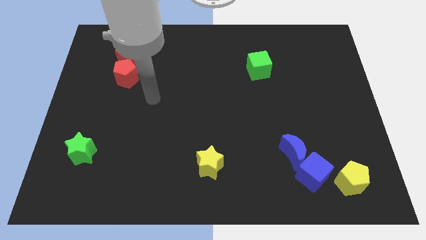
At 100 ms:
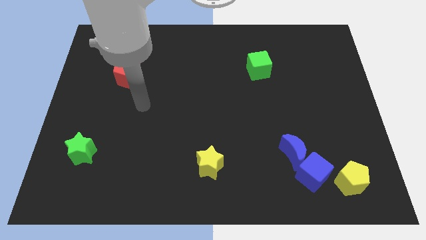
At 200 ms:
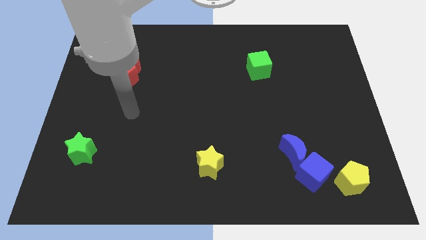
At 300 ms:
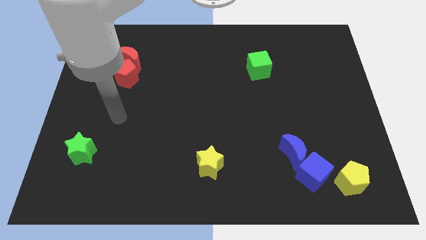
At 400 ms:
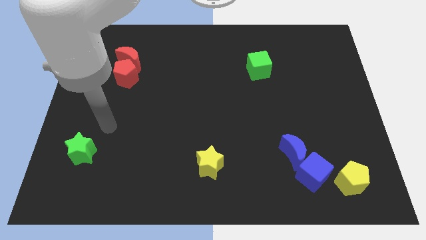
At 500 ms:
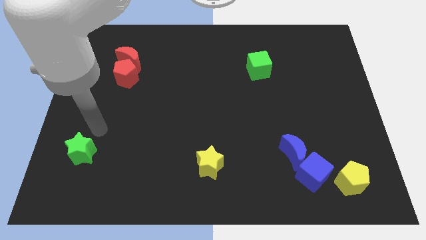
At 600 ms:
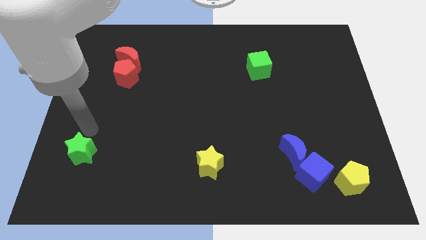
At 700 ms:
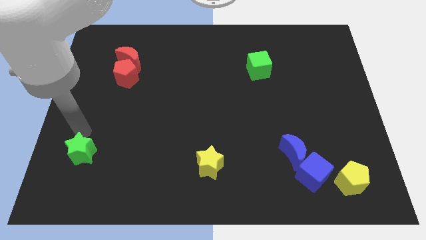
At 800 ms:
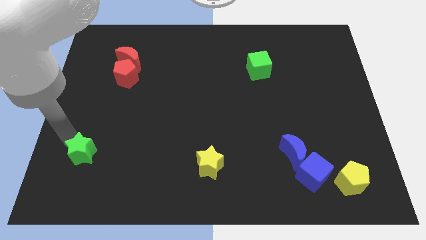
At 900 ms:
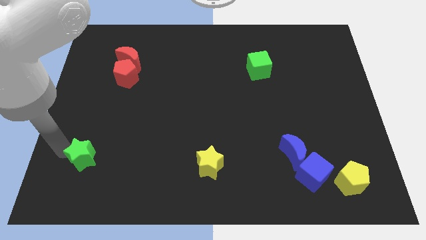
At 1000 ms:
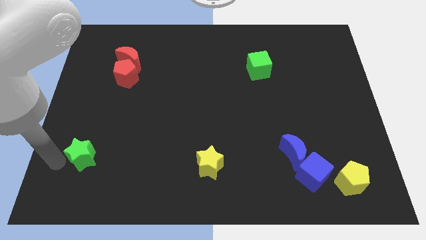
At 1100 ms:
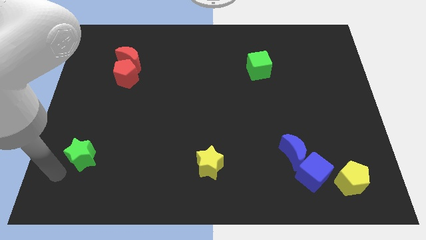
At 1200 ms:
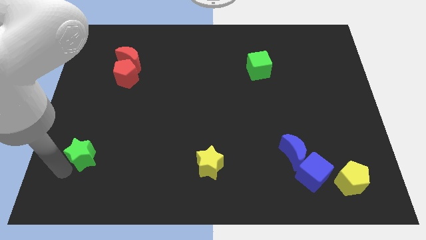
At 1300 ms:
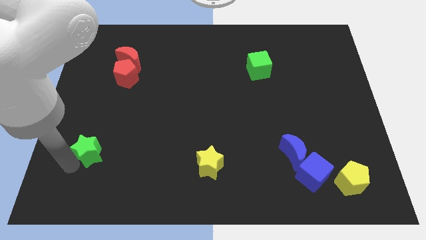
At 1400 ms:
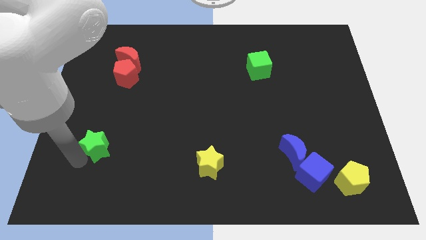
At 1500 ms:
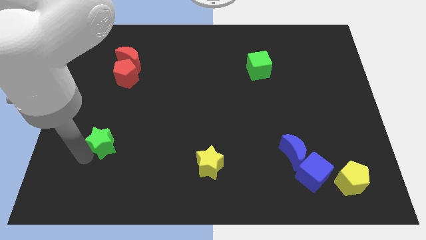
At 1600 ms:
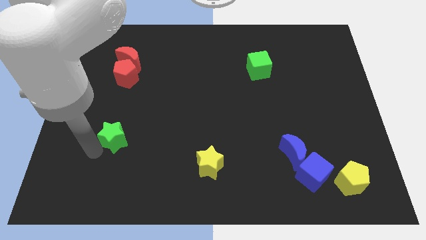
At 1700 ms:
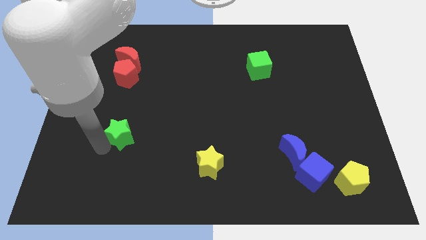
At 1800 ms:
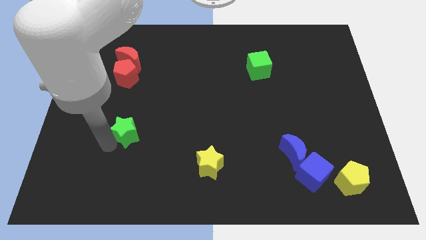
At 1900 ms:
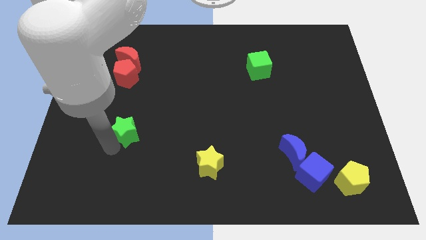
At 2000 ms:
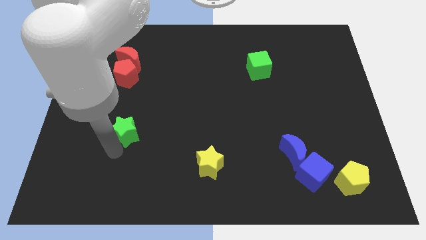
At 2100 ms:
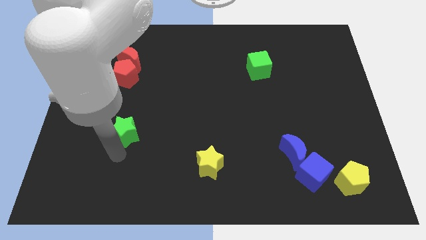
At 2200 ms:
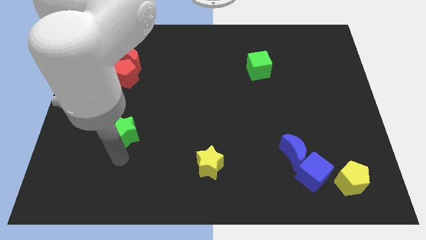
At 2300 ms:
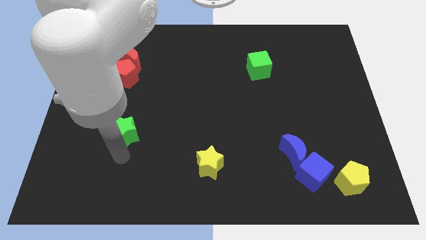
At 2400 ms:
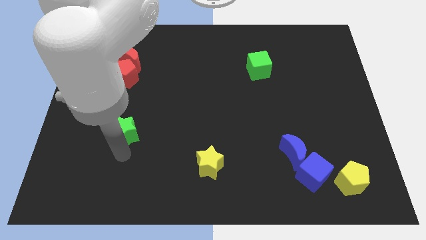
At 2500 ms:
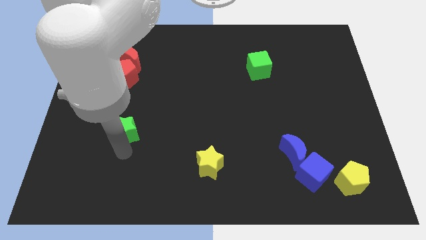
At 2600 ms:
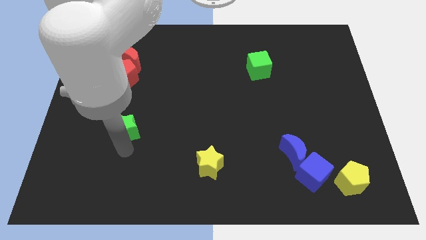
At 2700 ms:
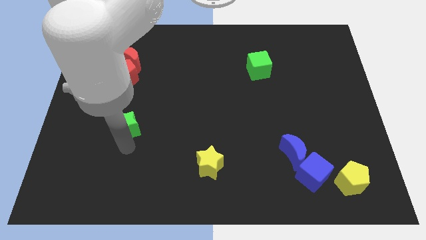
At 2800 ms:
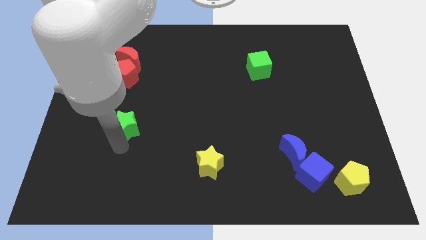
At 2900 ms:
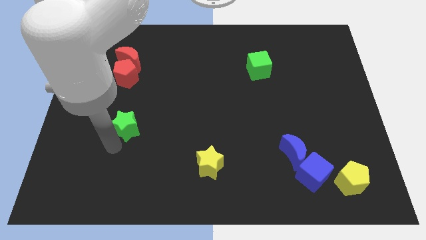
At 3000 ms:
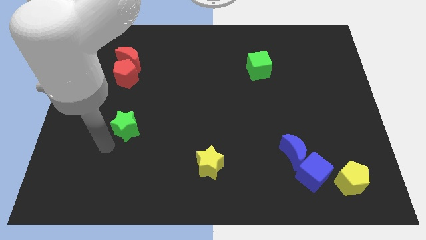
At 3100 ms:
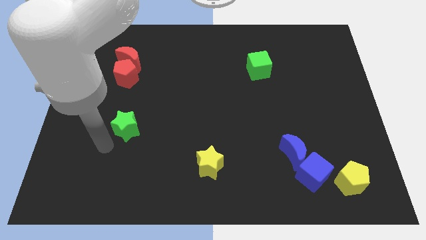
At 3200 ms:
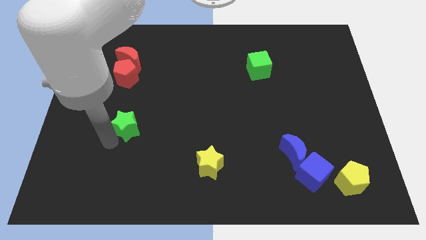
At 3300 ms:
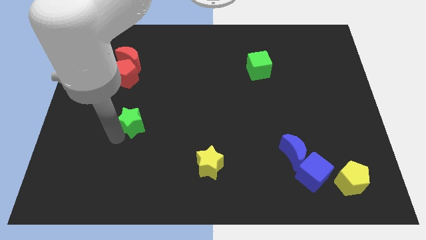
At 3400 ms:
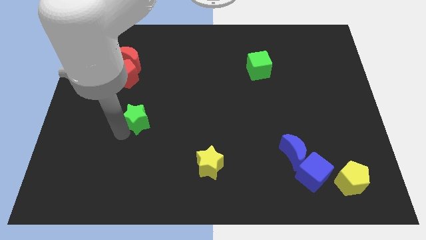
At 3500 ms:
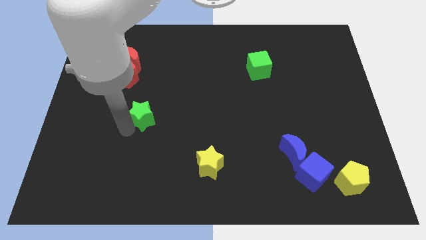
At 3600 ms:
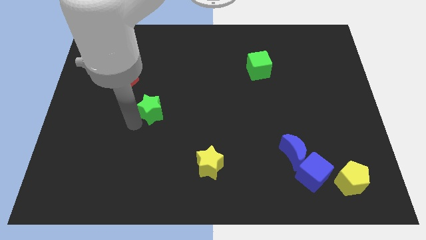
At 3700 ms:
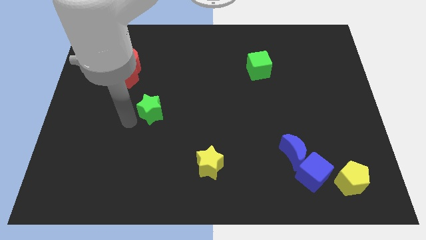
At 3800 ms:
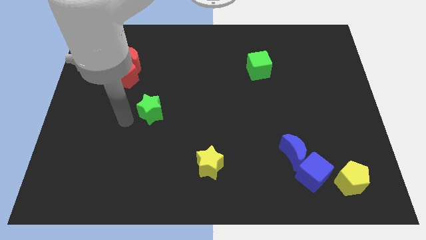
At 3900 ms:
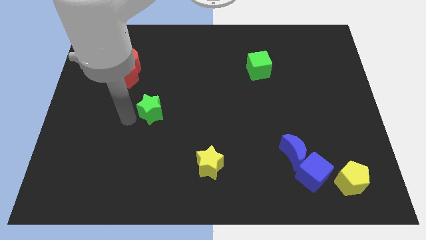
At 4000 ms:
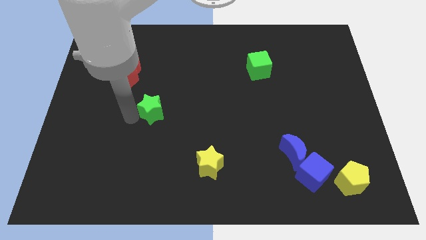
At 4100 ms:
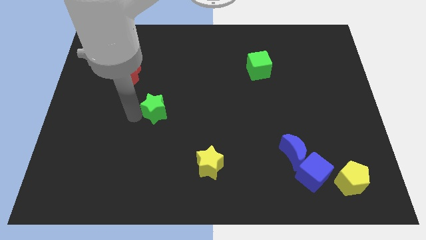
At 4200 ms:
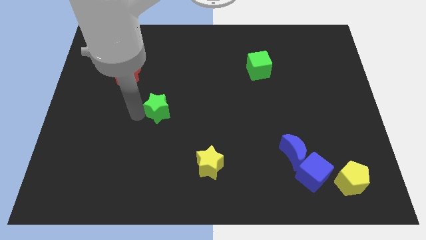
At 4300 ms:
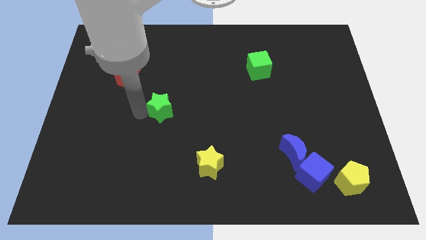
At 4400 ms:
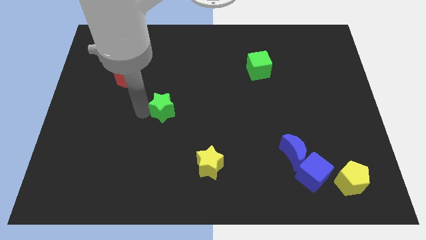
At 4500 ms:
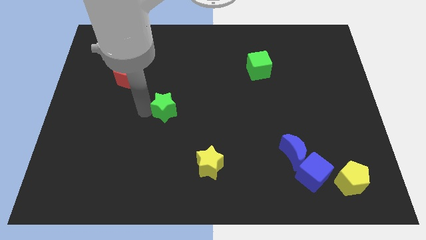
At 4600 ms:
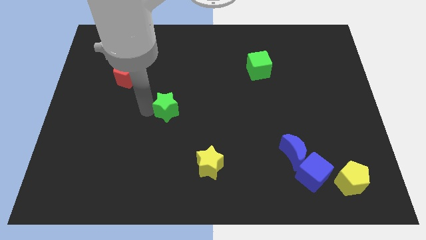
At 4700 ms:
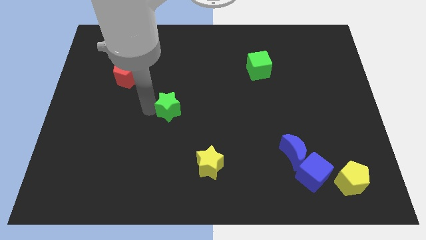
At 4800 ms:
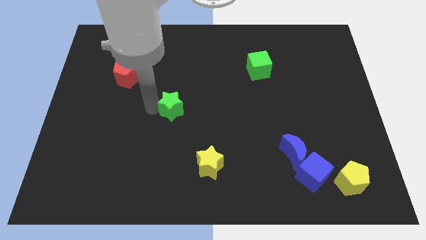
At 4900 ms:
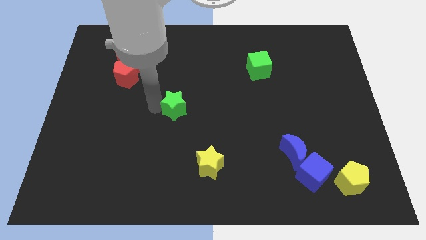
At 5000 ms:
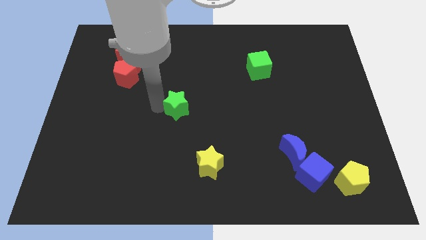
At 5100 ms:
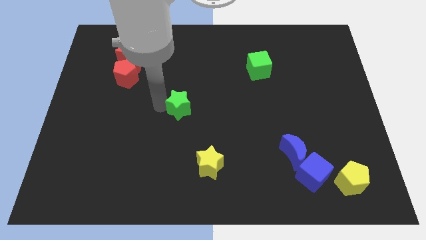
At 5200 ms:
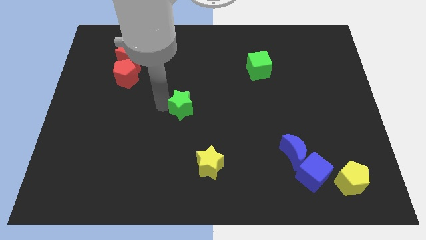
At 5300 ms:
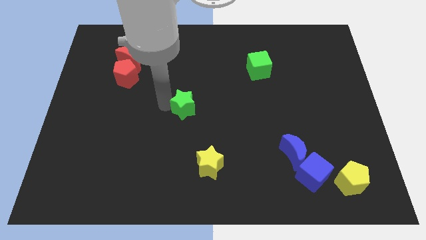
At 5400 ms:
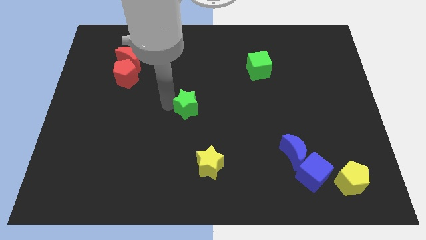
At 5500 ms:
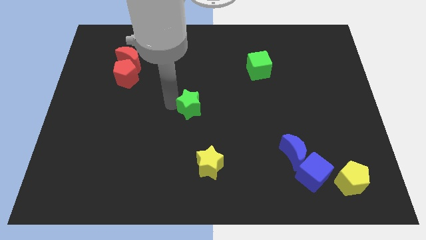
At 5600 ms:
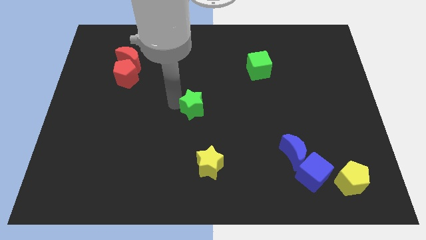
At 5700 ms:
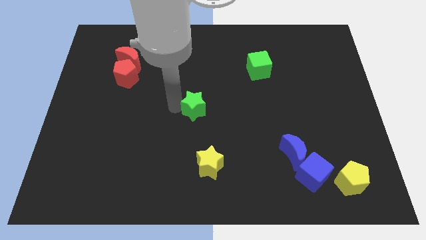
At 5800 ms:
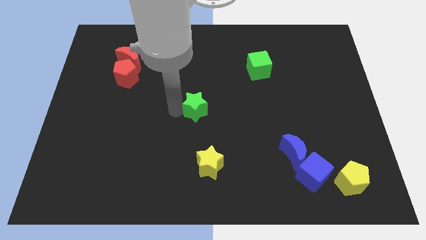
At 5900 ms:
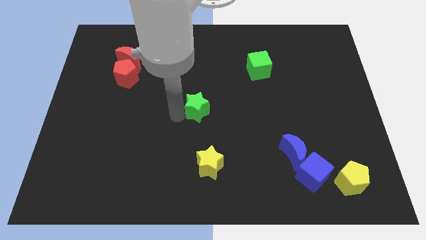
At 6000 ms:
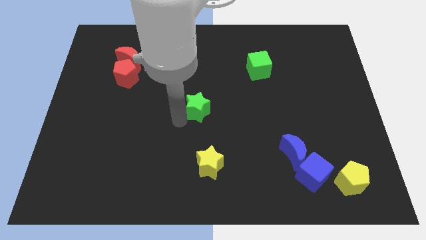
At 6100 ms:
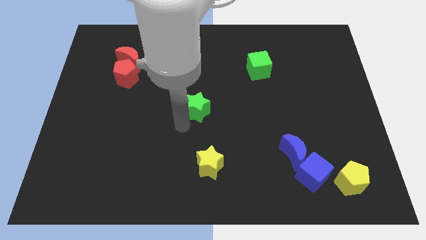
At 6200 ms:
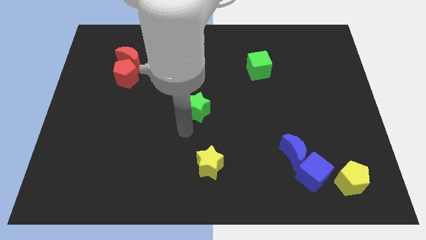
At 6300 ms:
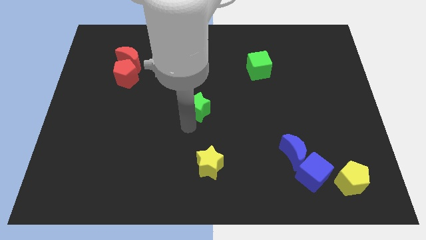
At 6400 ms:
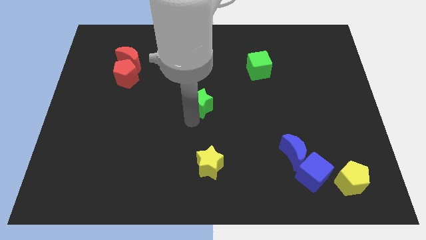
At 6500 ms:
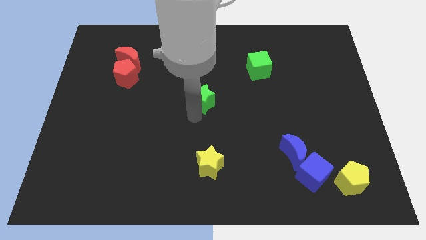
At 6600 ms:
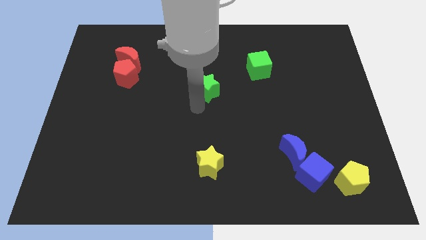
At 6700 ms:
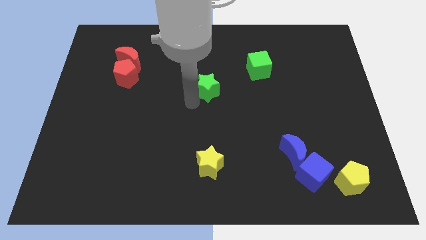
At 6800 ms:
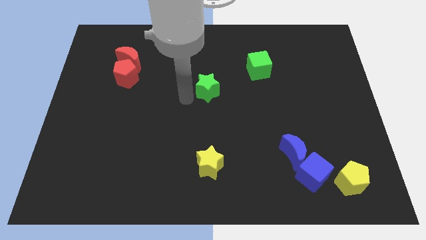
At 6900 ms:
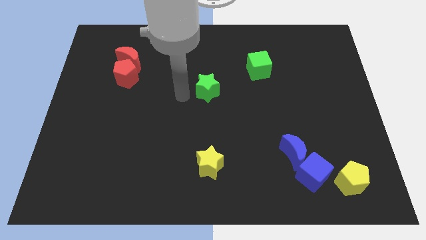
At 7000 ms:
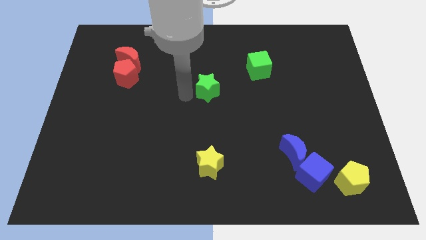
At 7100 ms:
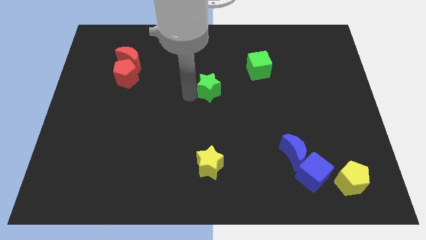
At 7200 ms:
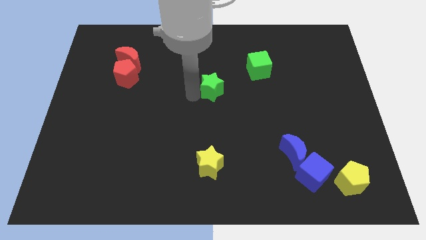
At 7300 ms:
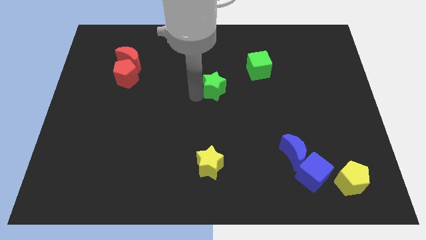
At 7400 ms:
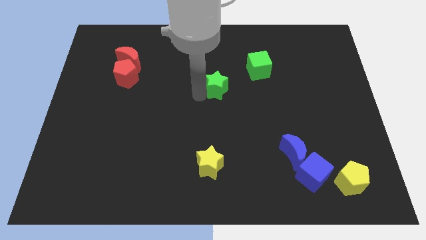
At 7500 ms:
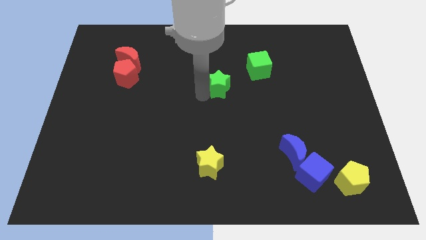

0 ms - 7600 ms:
move the green star diagonally down and to the left of the green cube
